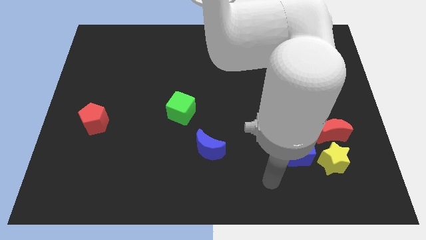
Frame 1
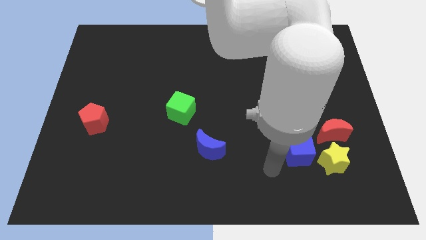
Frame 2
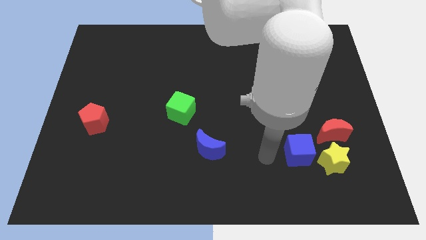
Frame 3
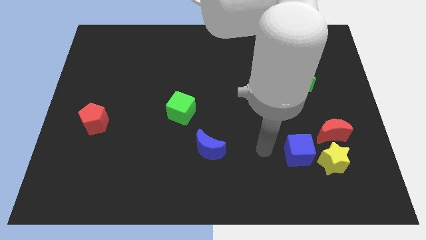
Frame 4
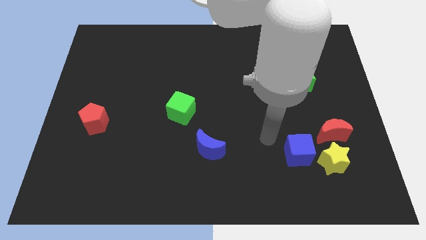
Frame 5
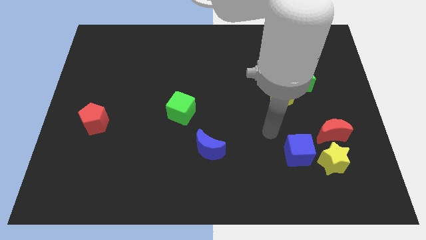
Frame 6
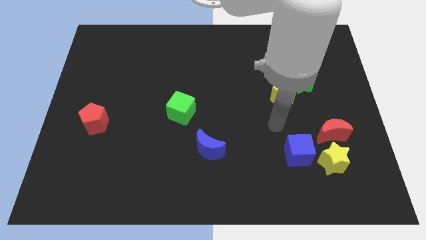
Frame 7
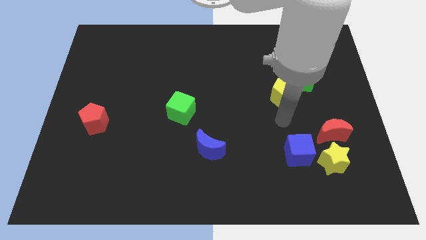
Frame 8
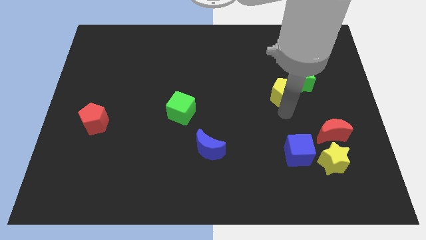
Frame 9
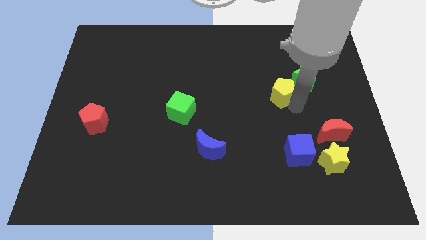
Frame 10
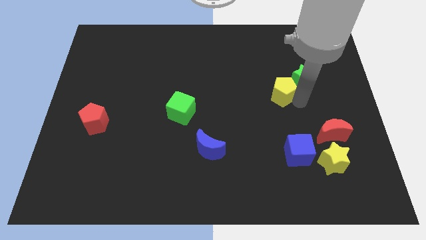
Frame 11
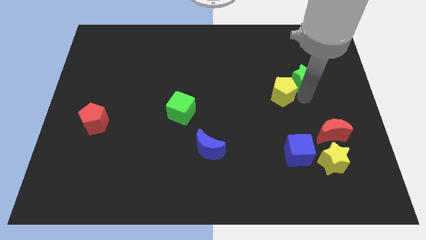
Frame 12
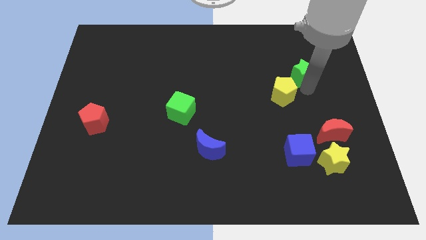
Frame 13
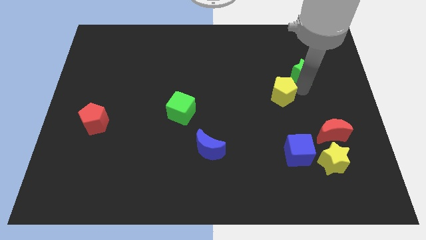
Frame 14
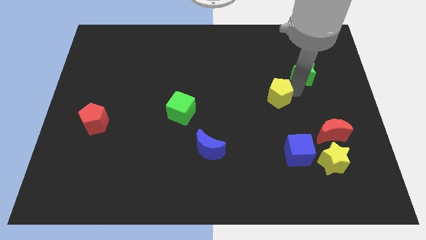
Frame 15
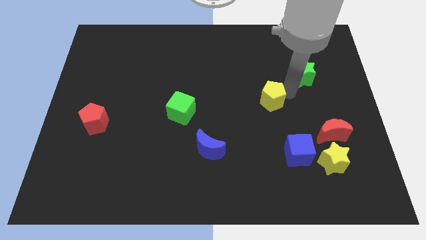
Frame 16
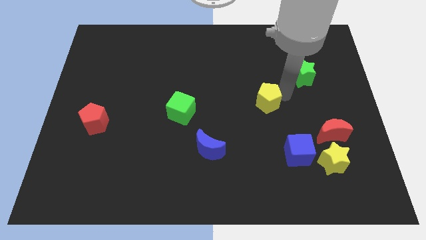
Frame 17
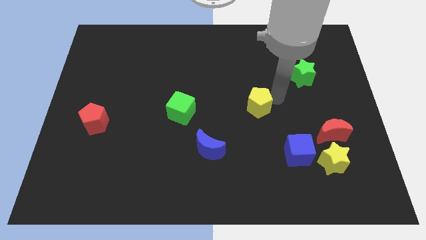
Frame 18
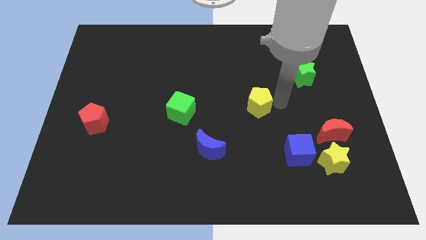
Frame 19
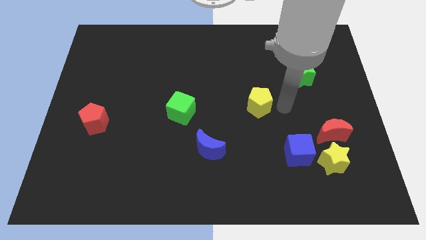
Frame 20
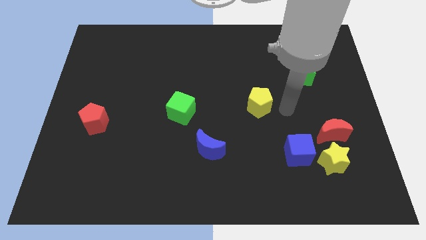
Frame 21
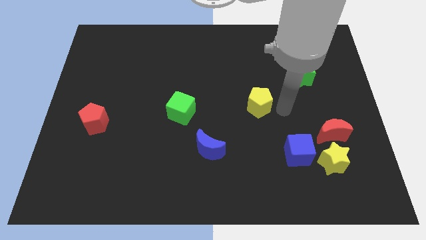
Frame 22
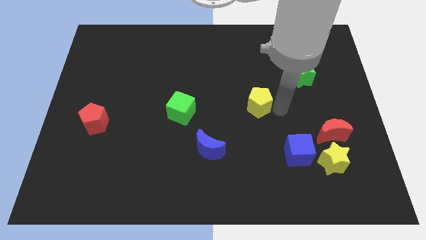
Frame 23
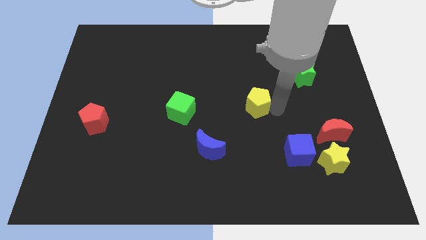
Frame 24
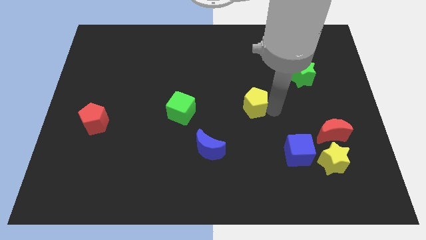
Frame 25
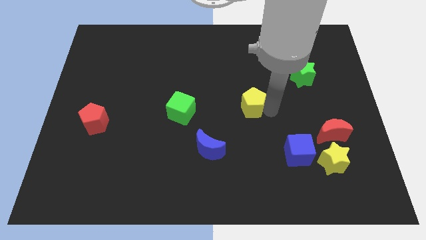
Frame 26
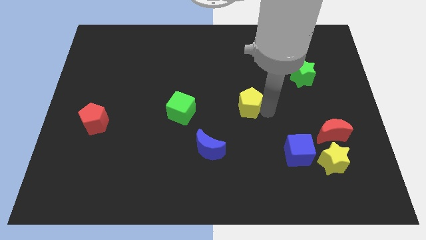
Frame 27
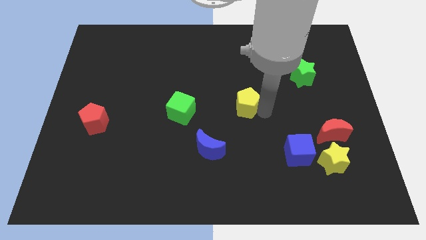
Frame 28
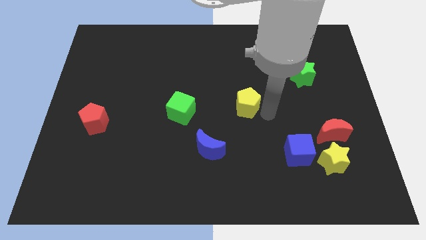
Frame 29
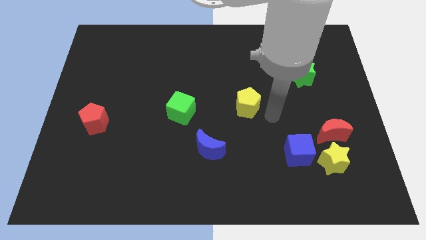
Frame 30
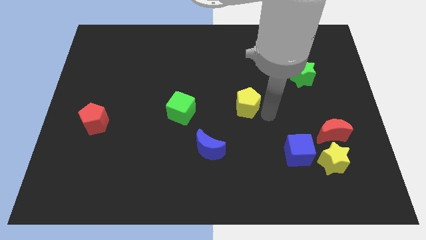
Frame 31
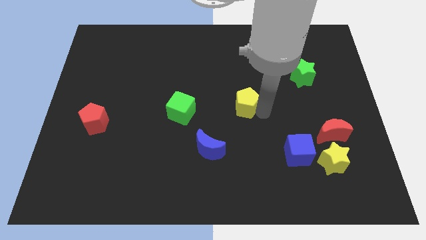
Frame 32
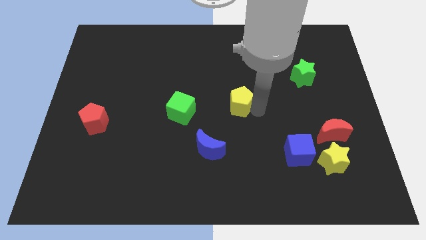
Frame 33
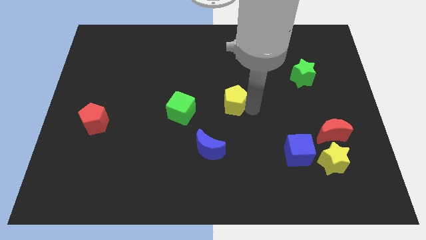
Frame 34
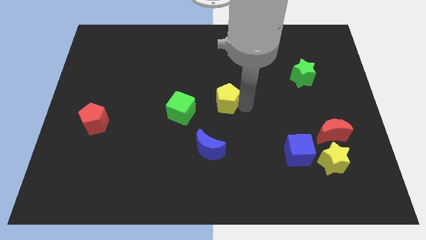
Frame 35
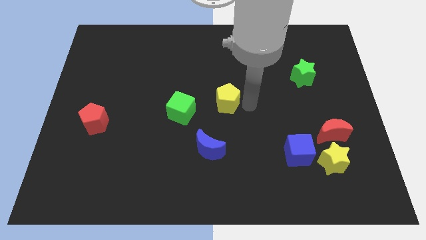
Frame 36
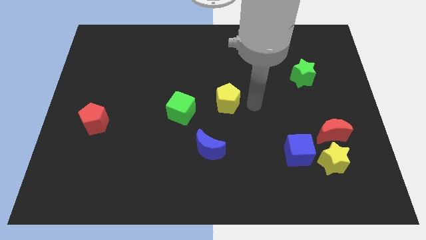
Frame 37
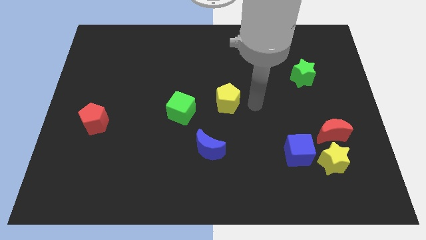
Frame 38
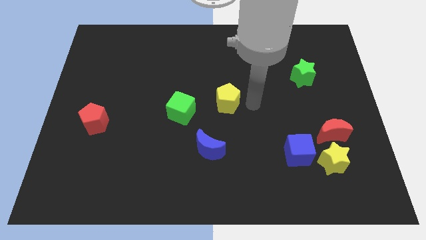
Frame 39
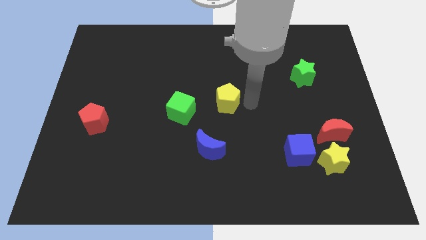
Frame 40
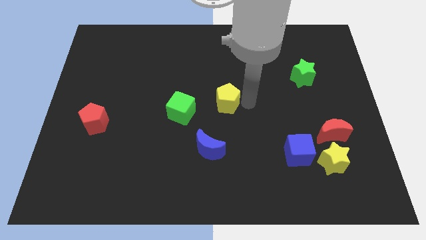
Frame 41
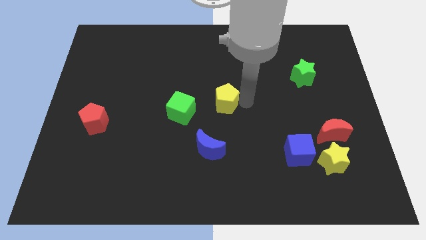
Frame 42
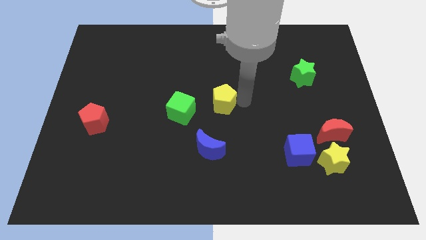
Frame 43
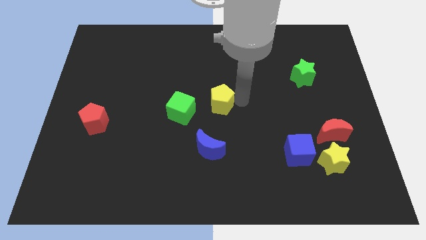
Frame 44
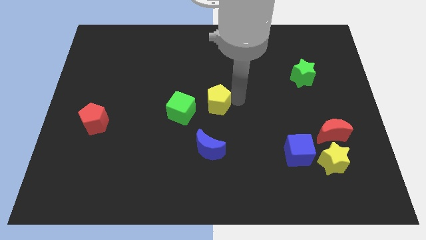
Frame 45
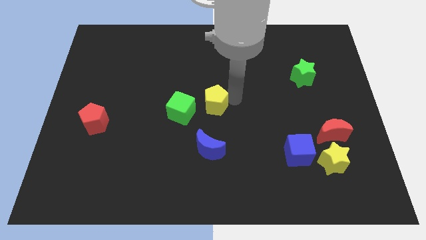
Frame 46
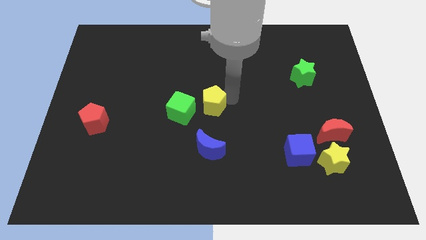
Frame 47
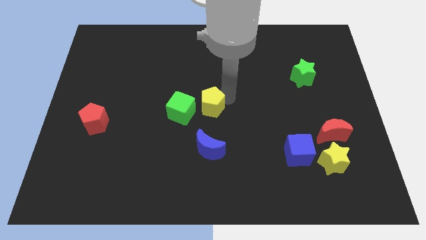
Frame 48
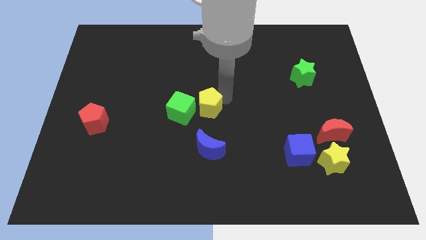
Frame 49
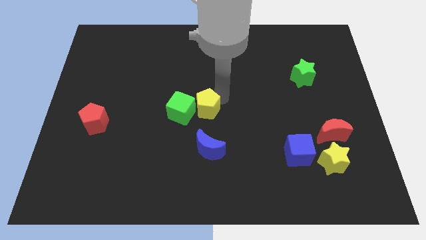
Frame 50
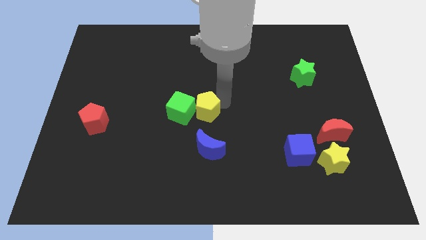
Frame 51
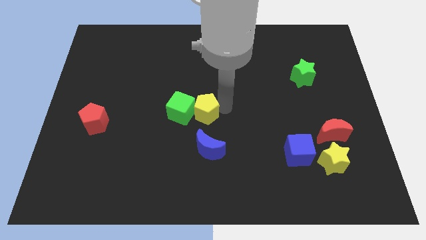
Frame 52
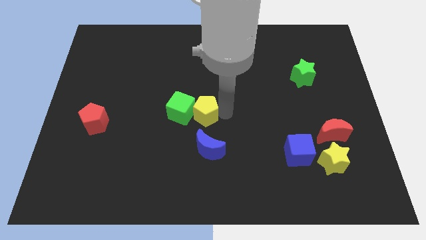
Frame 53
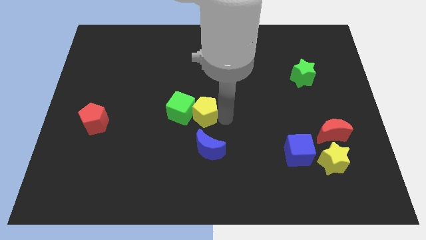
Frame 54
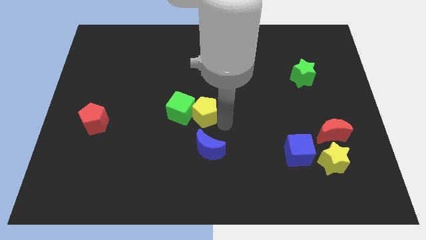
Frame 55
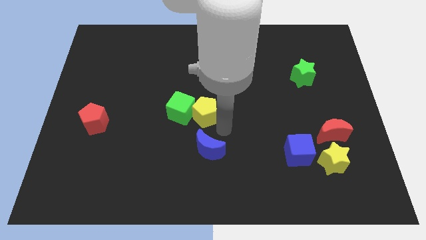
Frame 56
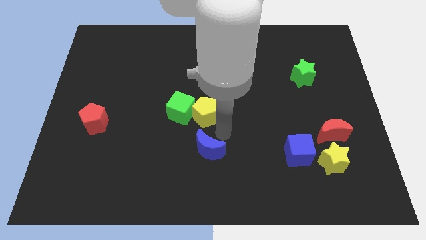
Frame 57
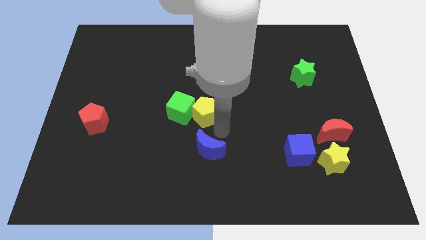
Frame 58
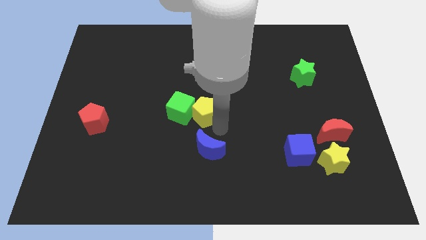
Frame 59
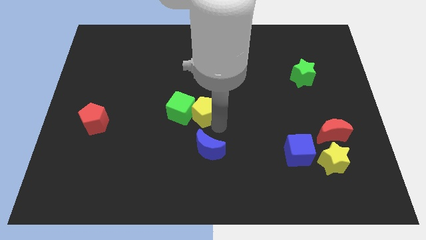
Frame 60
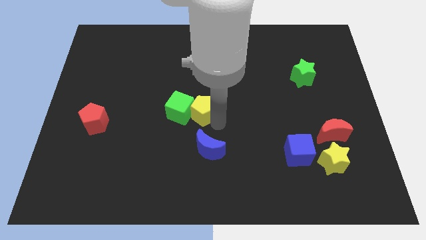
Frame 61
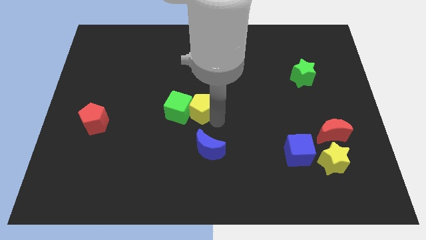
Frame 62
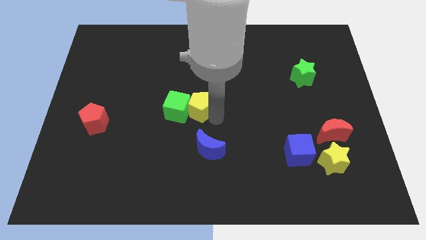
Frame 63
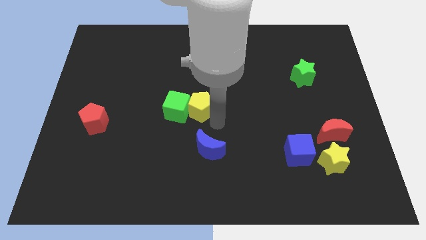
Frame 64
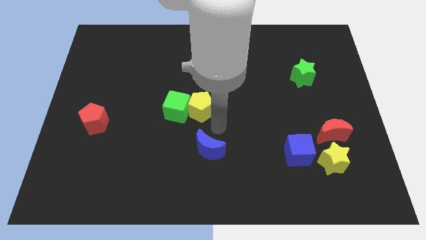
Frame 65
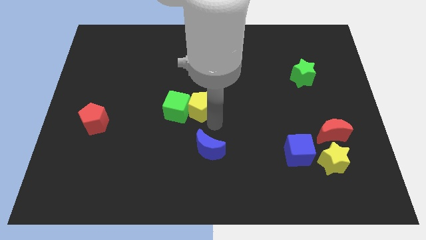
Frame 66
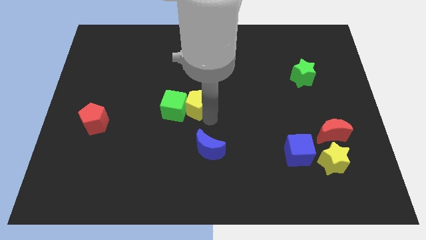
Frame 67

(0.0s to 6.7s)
slide the yellow pentagon to the left

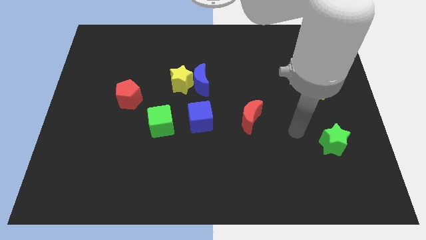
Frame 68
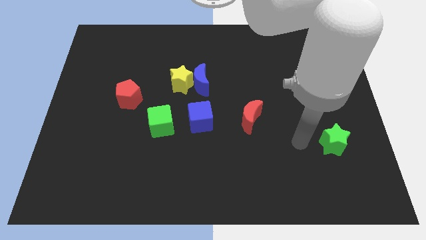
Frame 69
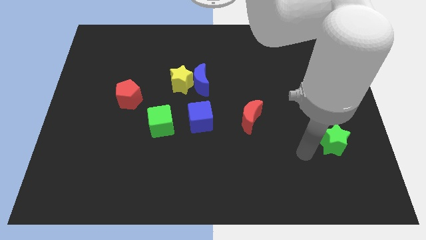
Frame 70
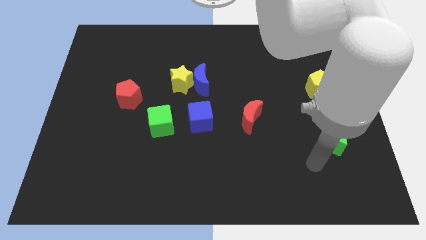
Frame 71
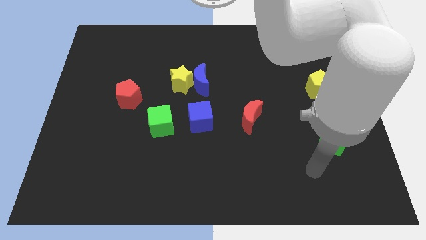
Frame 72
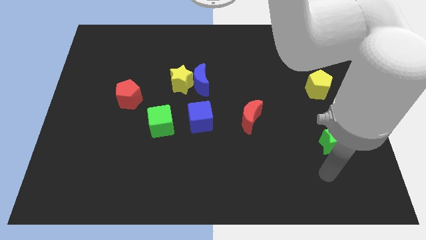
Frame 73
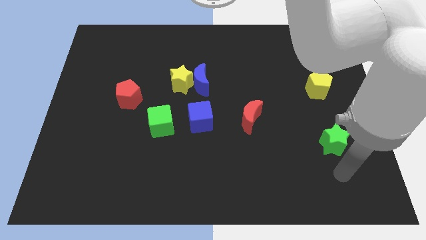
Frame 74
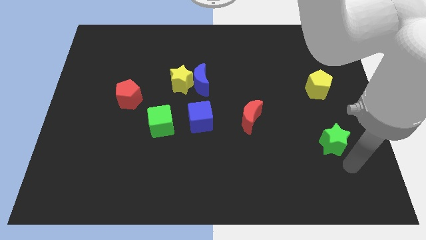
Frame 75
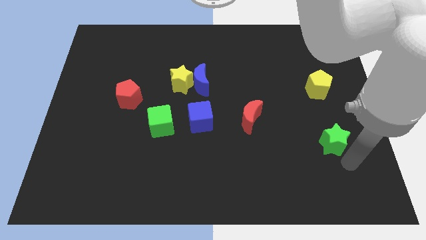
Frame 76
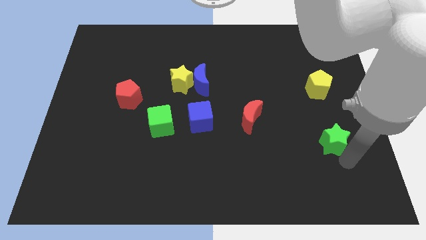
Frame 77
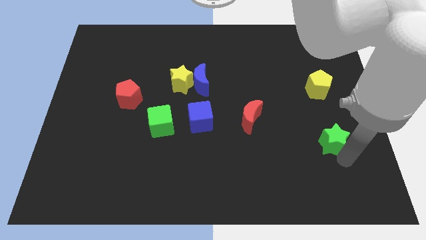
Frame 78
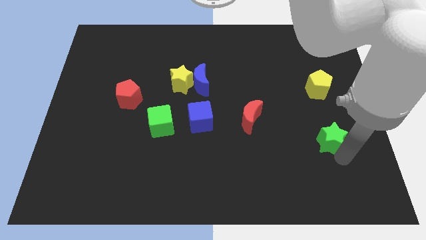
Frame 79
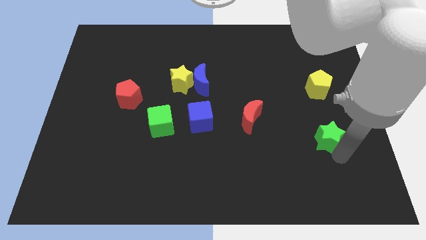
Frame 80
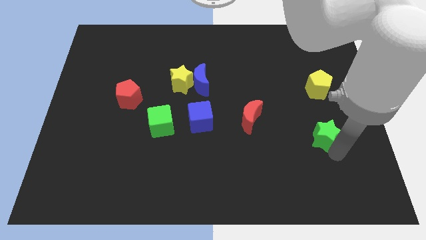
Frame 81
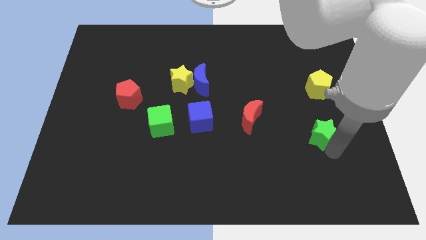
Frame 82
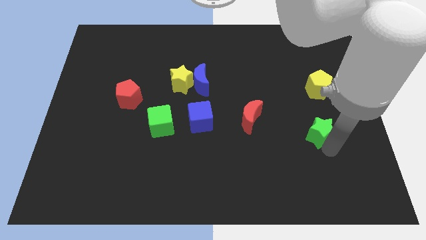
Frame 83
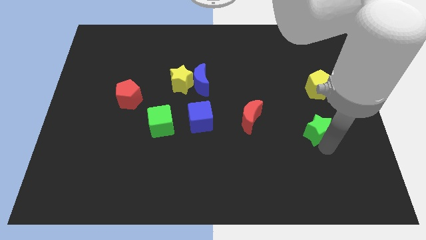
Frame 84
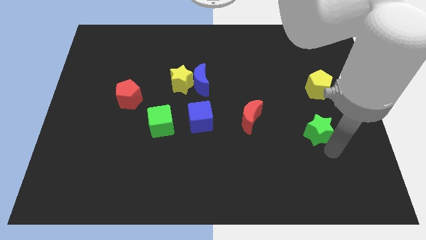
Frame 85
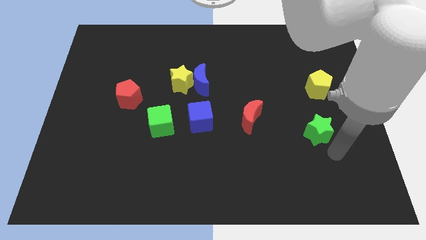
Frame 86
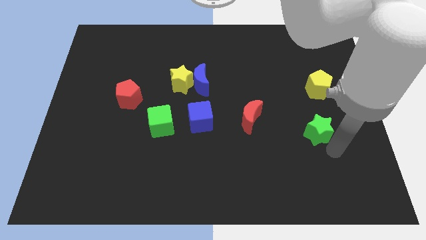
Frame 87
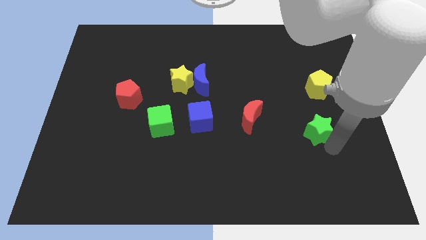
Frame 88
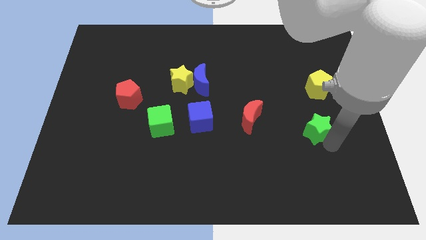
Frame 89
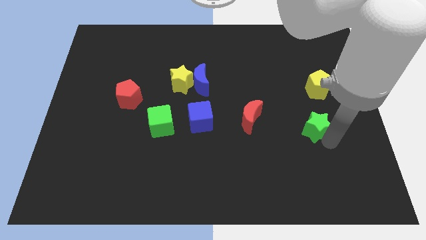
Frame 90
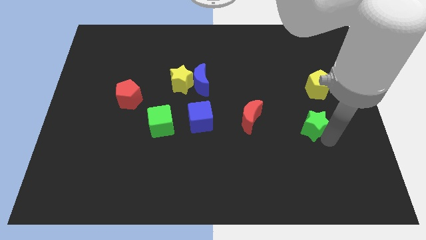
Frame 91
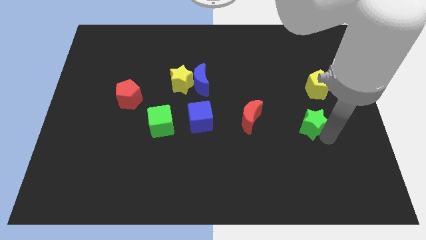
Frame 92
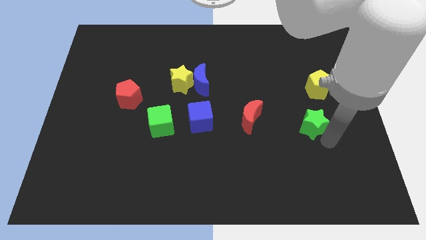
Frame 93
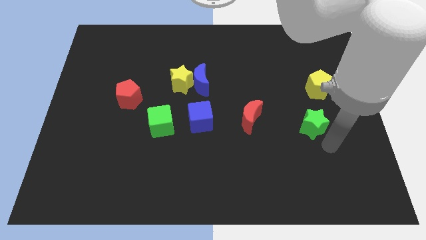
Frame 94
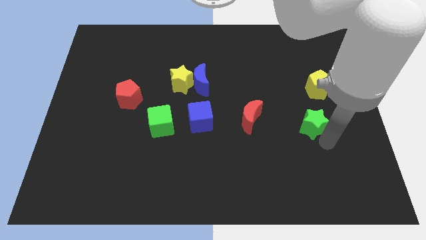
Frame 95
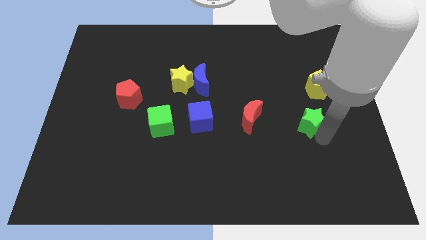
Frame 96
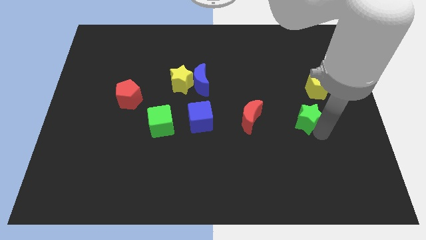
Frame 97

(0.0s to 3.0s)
slide the green star a little up and then left
